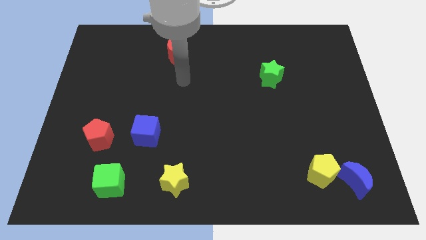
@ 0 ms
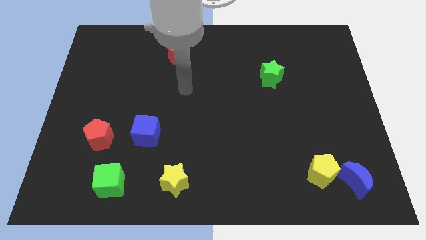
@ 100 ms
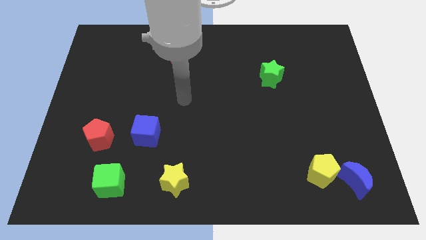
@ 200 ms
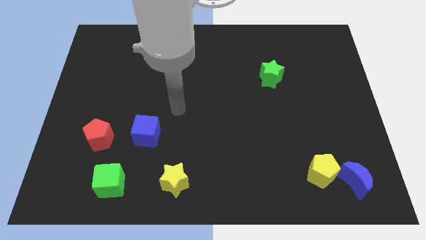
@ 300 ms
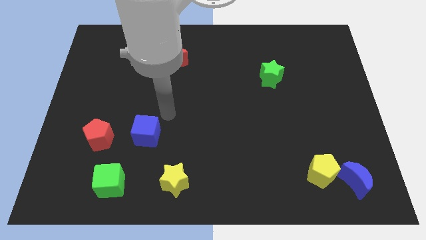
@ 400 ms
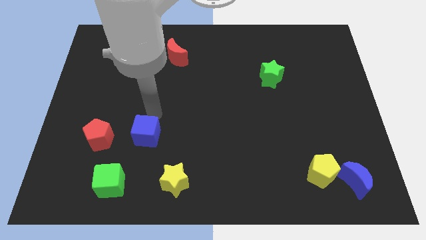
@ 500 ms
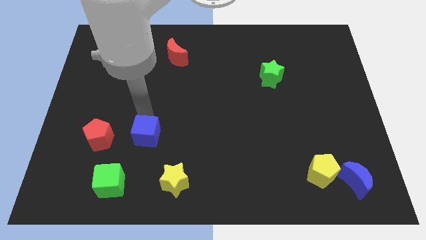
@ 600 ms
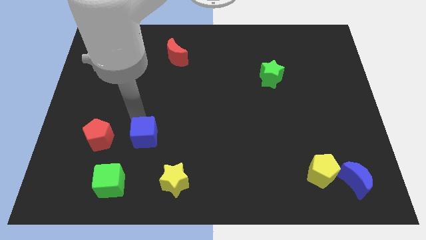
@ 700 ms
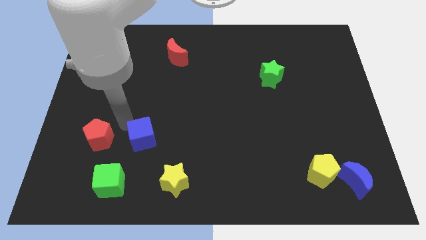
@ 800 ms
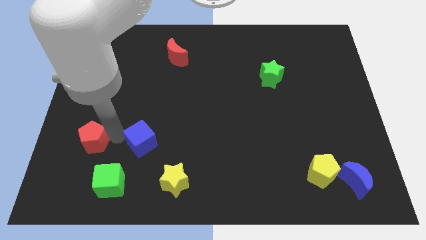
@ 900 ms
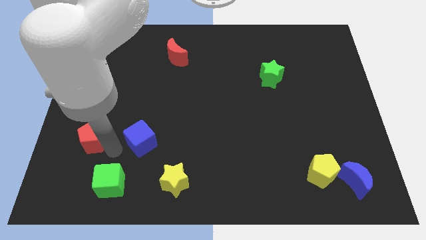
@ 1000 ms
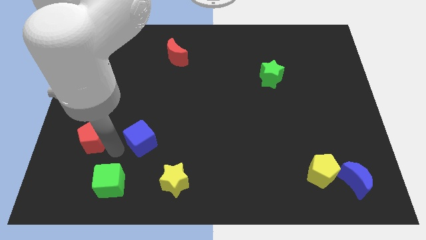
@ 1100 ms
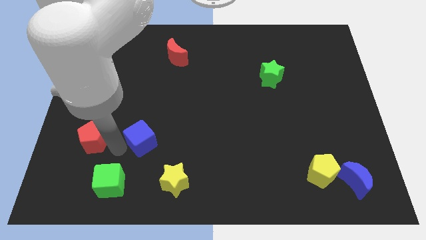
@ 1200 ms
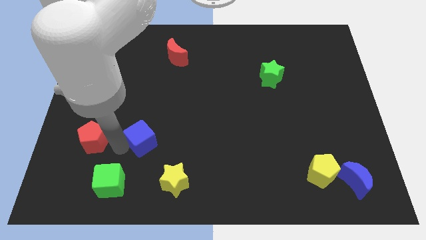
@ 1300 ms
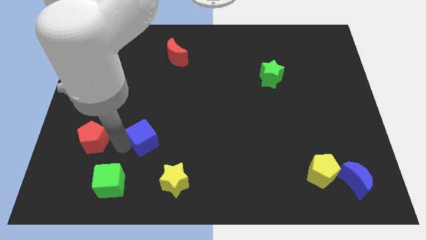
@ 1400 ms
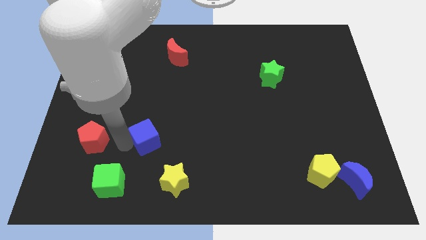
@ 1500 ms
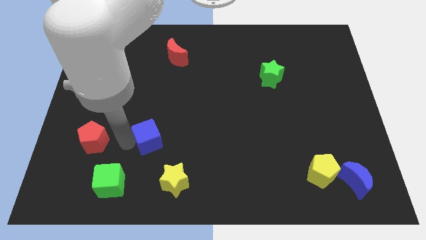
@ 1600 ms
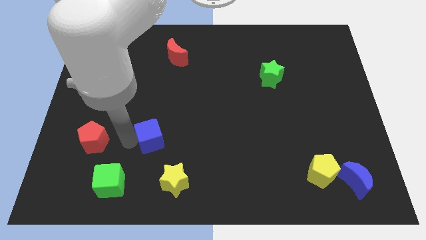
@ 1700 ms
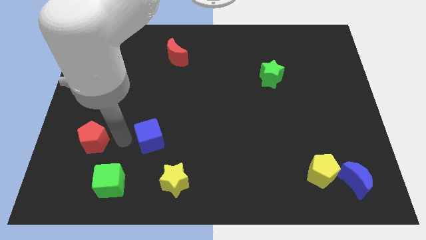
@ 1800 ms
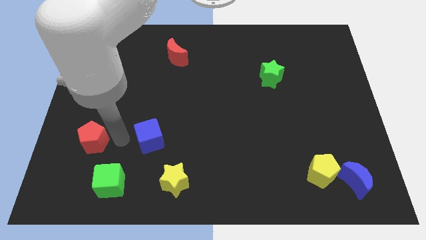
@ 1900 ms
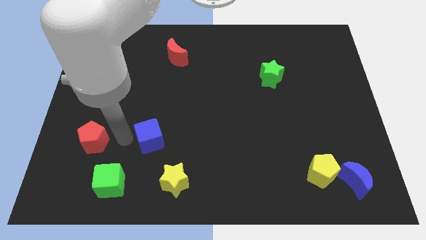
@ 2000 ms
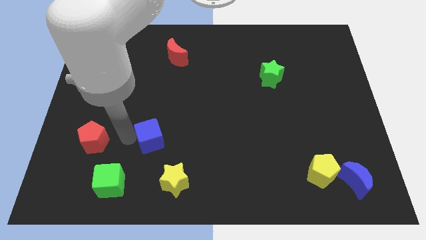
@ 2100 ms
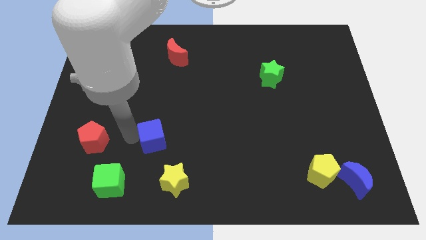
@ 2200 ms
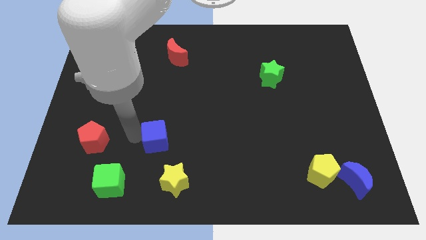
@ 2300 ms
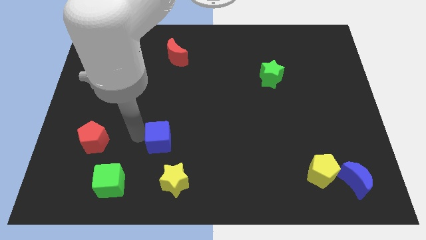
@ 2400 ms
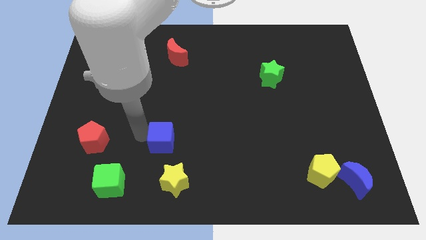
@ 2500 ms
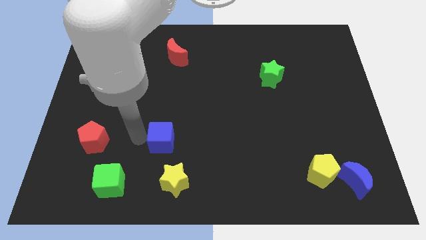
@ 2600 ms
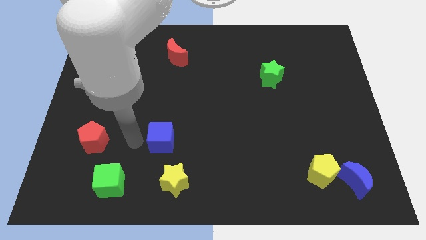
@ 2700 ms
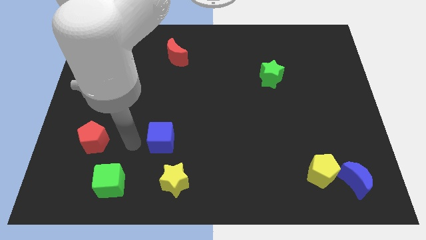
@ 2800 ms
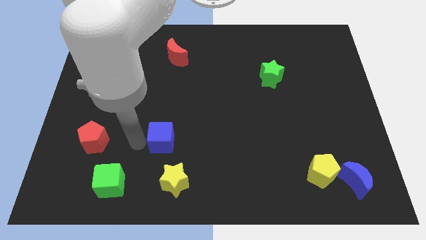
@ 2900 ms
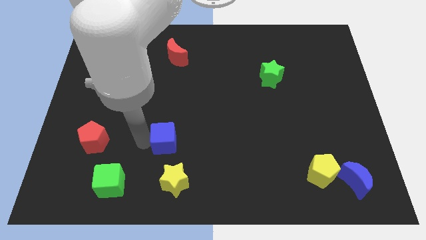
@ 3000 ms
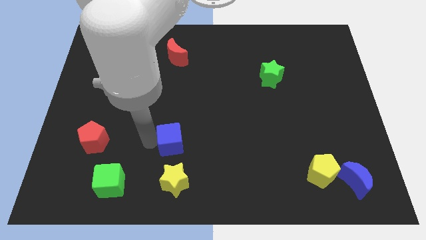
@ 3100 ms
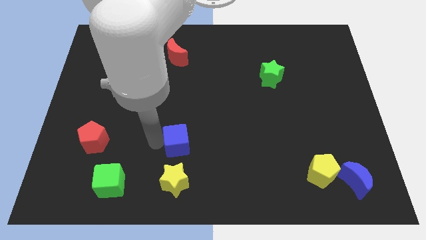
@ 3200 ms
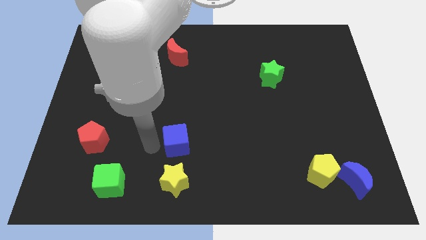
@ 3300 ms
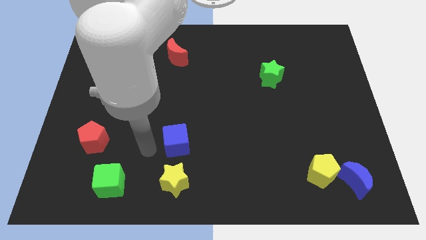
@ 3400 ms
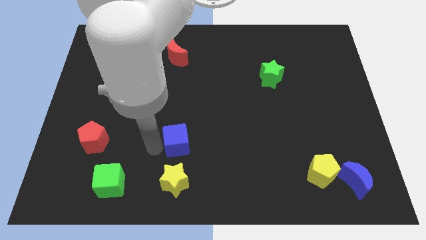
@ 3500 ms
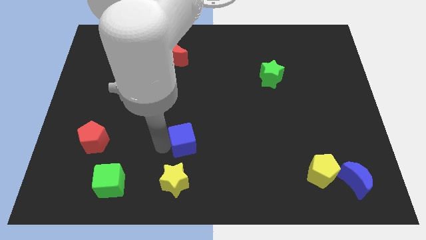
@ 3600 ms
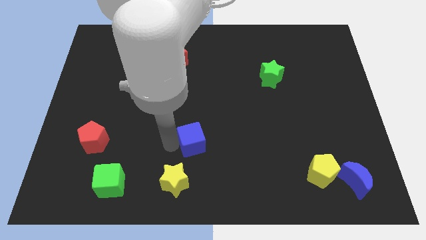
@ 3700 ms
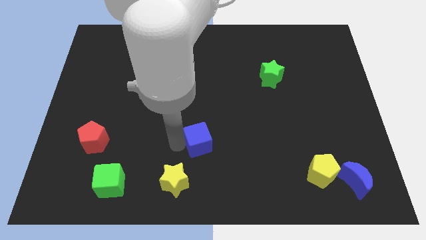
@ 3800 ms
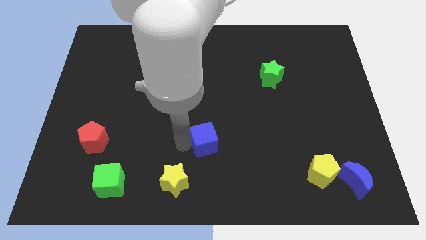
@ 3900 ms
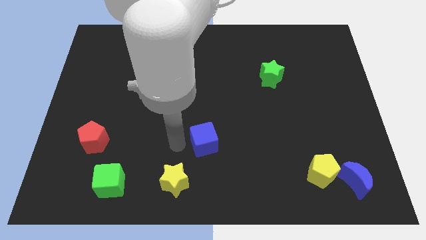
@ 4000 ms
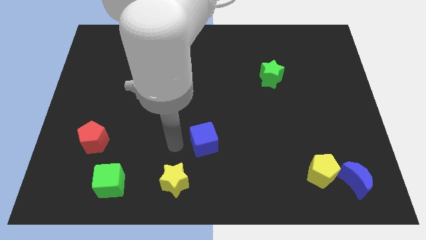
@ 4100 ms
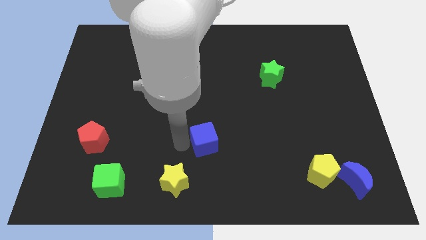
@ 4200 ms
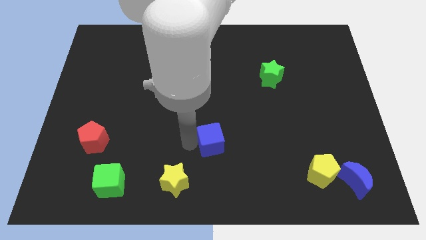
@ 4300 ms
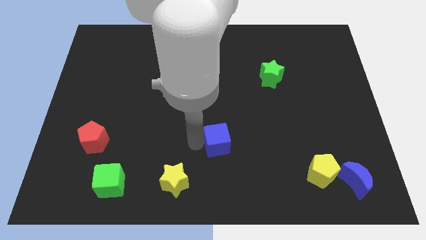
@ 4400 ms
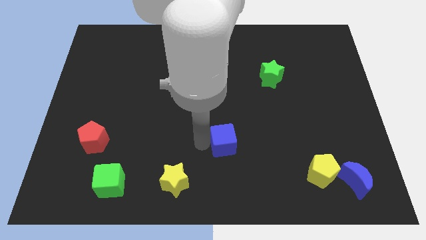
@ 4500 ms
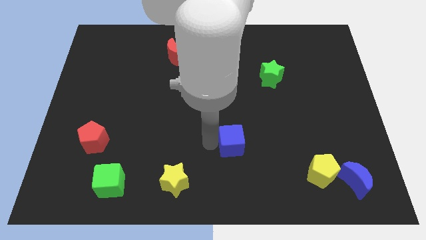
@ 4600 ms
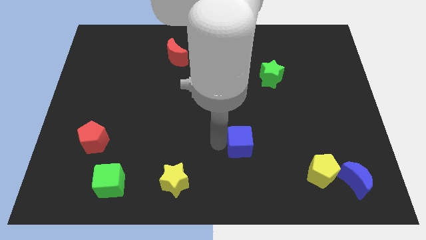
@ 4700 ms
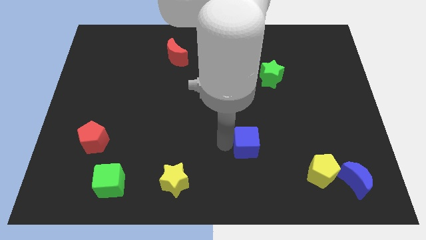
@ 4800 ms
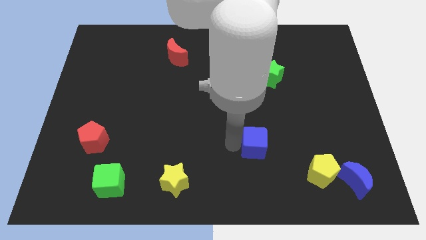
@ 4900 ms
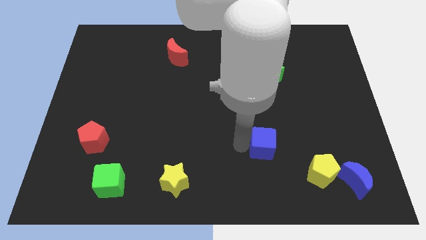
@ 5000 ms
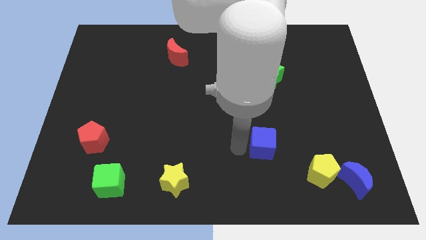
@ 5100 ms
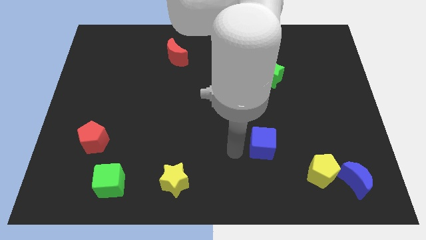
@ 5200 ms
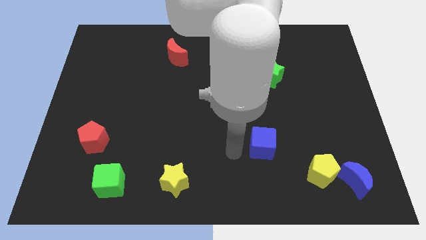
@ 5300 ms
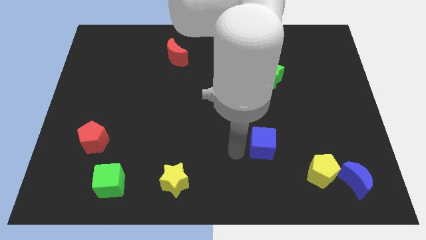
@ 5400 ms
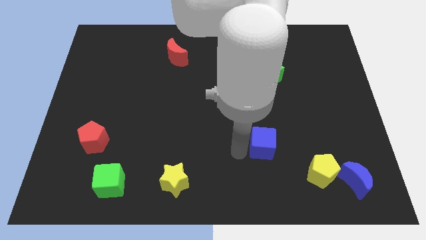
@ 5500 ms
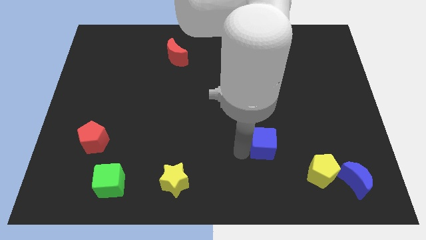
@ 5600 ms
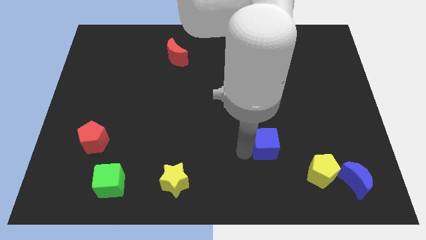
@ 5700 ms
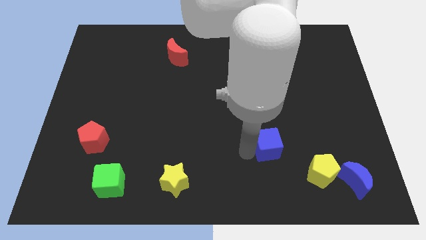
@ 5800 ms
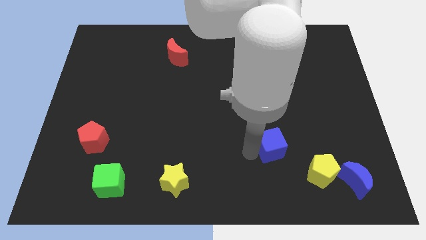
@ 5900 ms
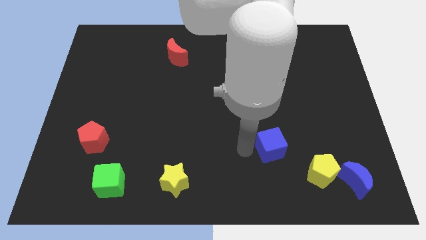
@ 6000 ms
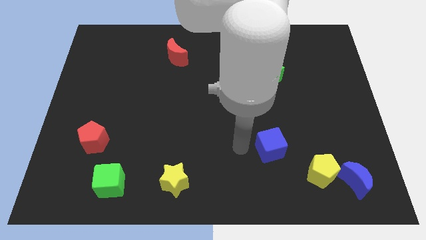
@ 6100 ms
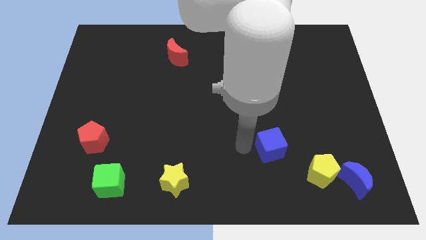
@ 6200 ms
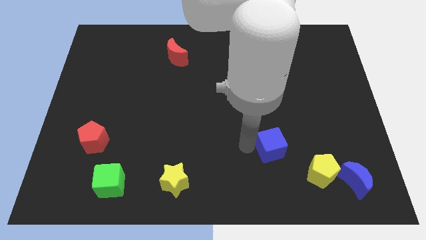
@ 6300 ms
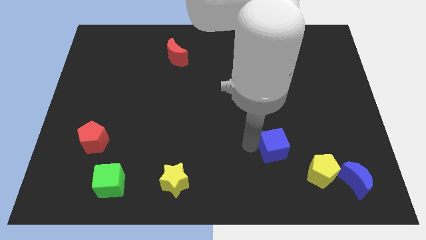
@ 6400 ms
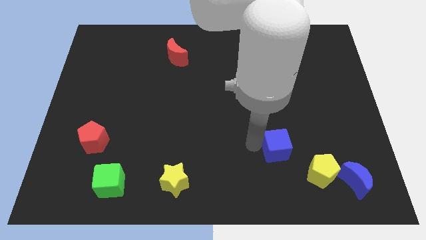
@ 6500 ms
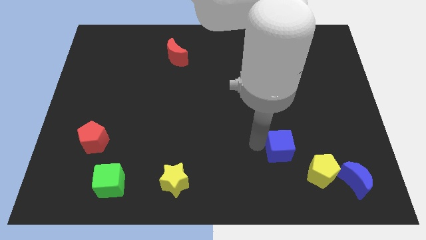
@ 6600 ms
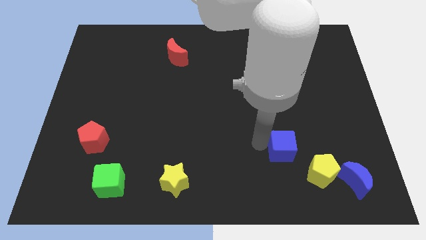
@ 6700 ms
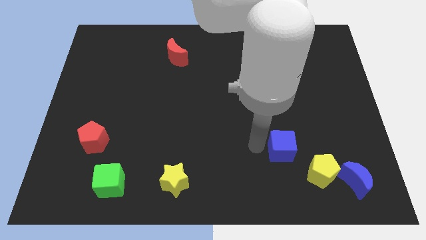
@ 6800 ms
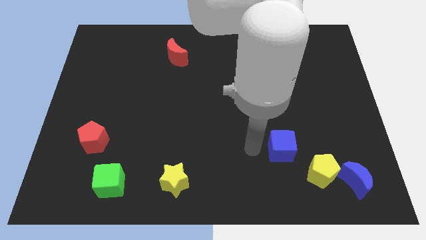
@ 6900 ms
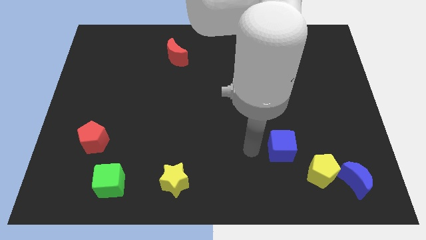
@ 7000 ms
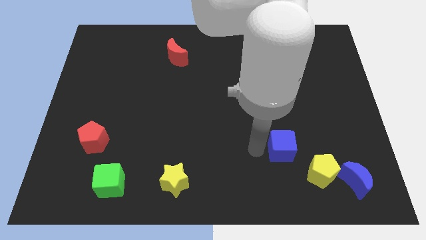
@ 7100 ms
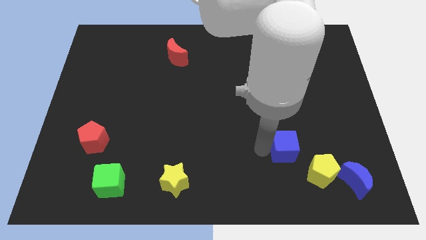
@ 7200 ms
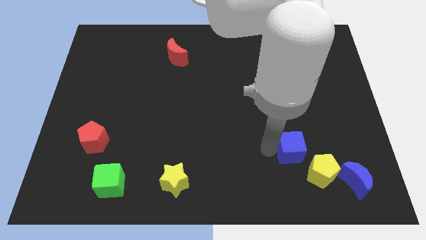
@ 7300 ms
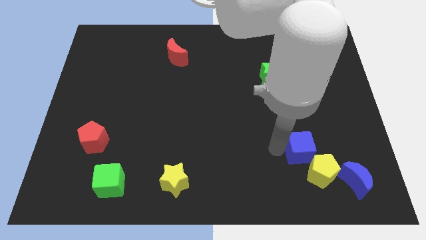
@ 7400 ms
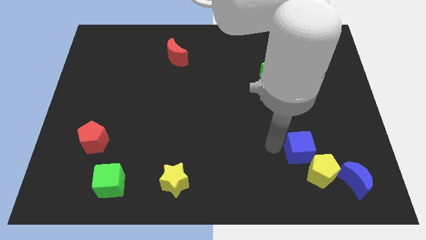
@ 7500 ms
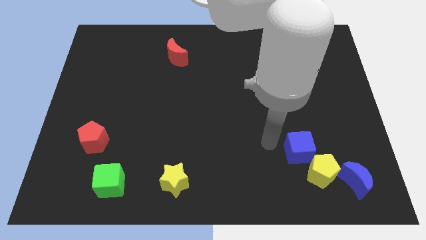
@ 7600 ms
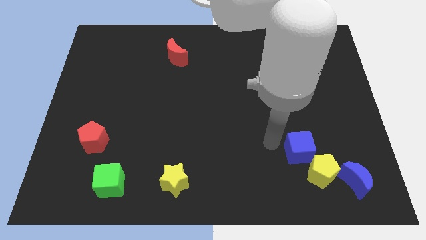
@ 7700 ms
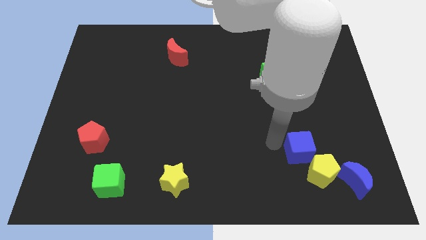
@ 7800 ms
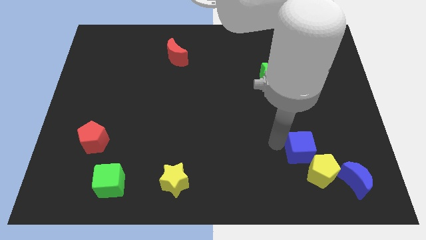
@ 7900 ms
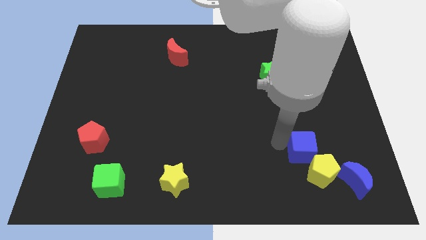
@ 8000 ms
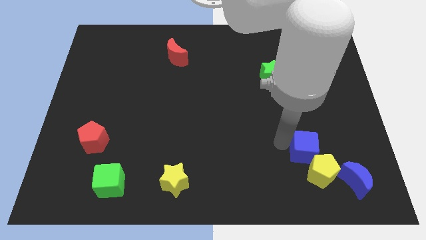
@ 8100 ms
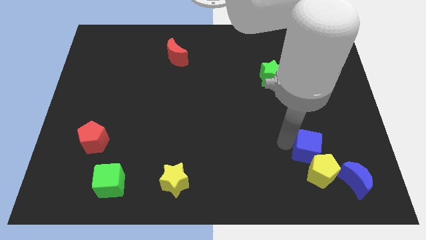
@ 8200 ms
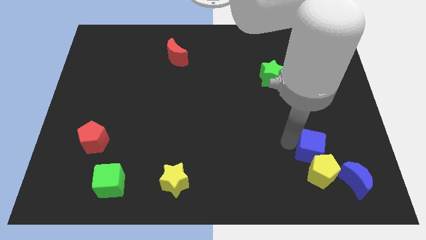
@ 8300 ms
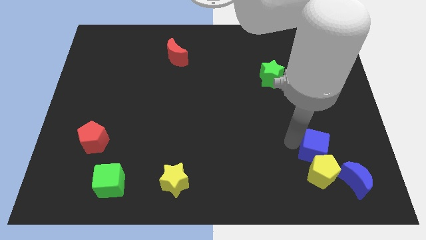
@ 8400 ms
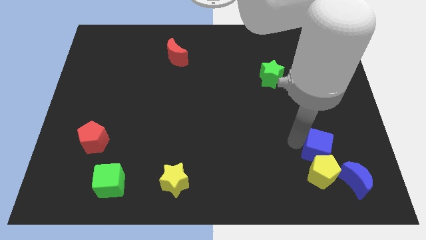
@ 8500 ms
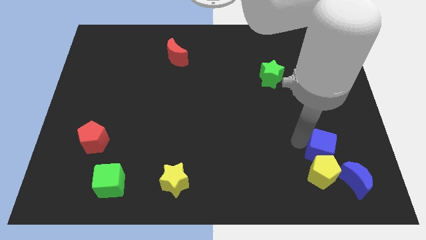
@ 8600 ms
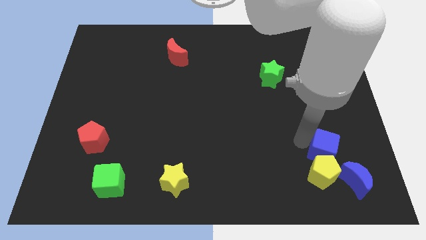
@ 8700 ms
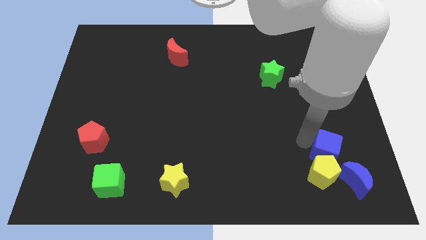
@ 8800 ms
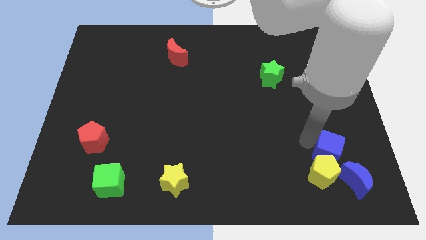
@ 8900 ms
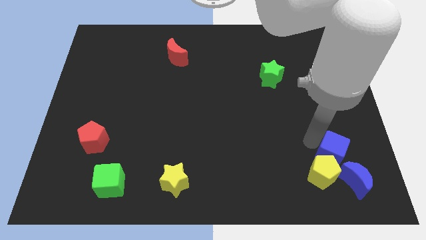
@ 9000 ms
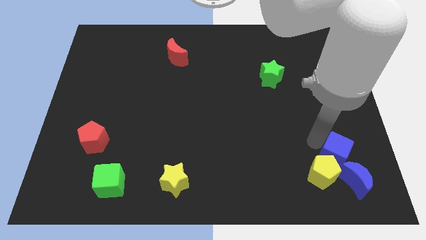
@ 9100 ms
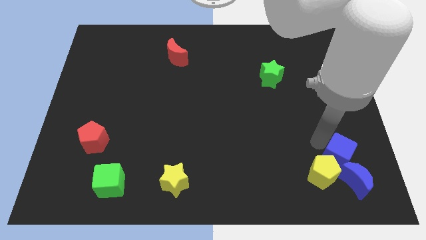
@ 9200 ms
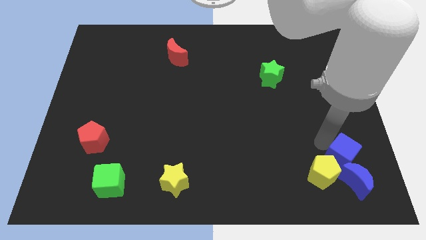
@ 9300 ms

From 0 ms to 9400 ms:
put the blue cube to the blue moon
